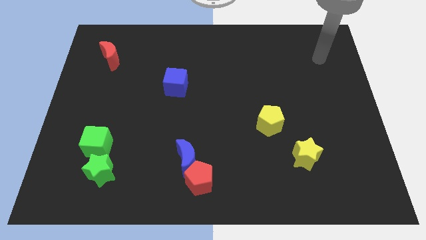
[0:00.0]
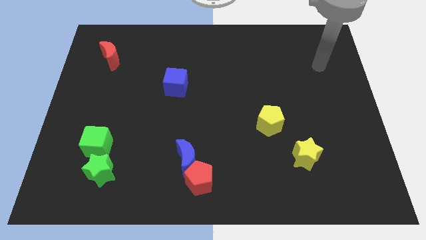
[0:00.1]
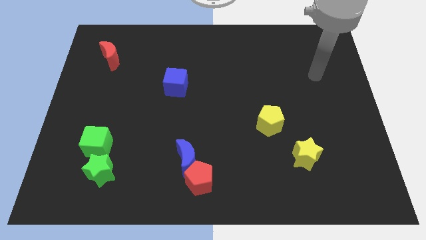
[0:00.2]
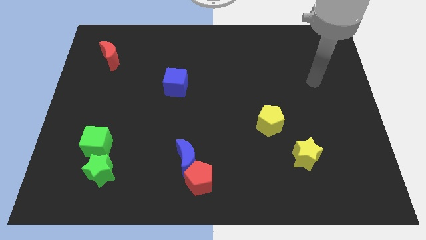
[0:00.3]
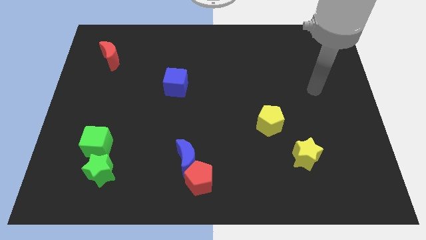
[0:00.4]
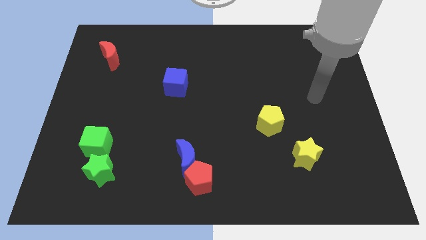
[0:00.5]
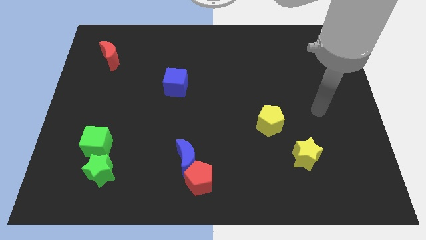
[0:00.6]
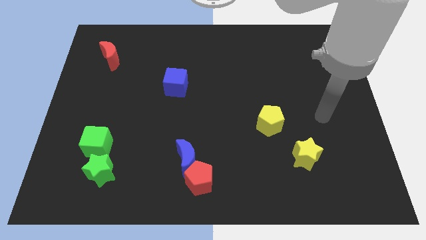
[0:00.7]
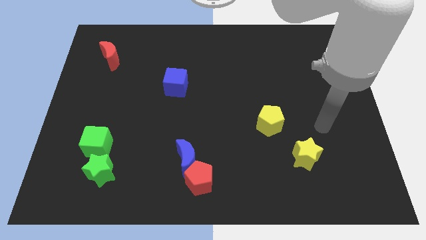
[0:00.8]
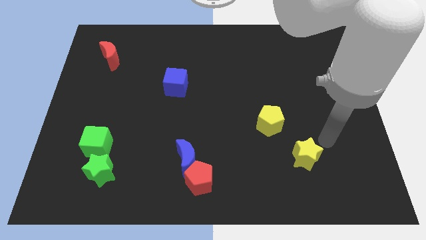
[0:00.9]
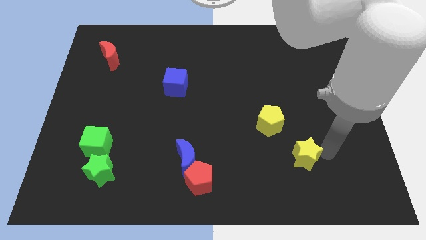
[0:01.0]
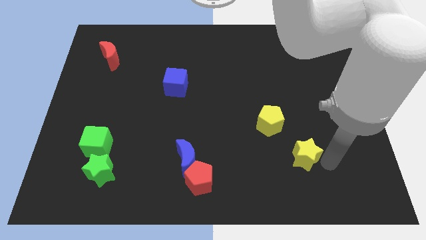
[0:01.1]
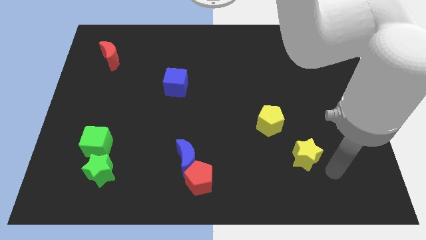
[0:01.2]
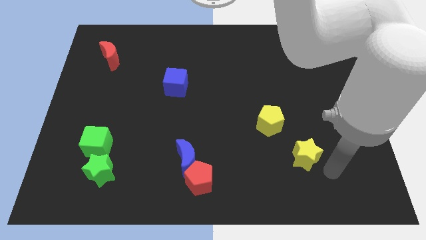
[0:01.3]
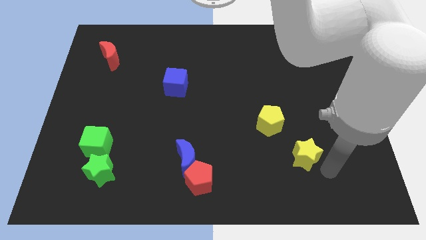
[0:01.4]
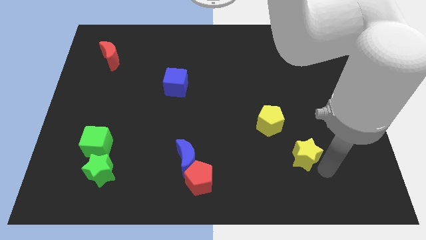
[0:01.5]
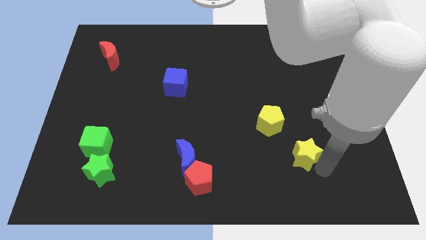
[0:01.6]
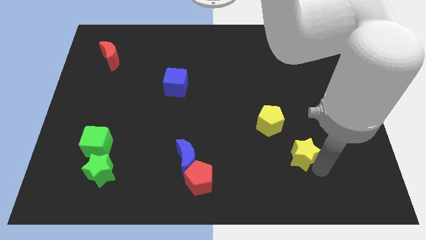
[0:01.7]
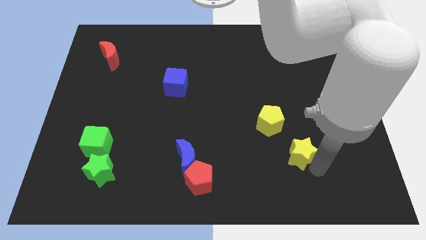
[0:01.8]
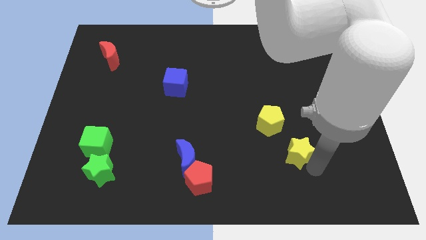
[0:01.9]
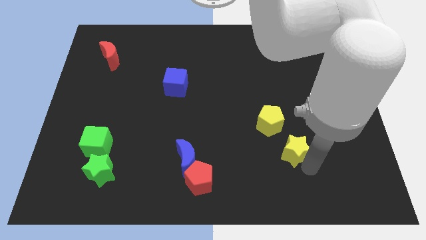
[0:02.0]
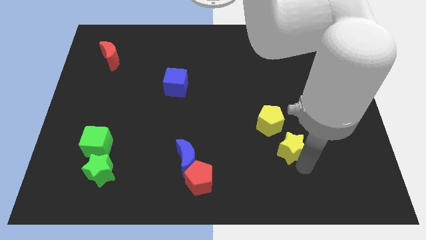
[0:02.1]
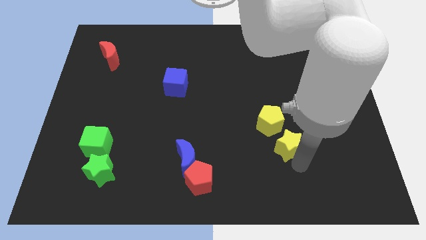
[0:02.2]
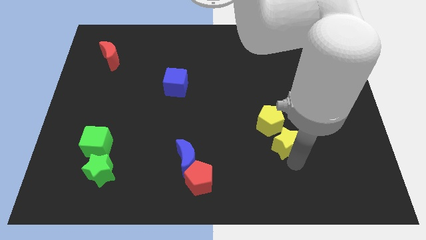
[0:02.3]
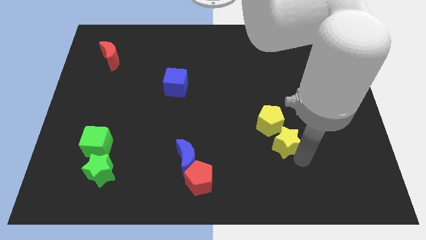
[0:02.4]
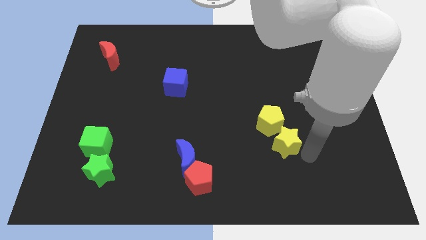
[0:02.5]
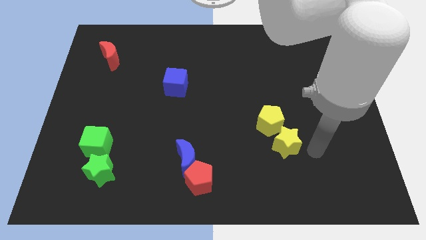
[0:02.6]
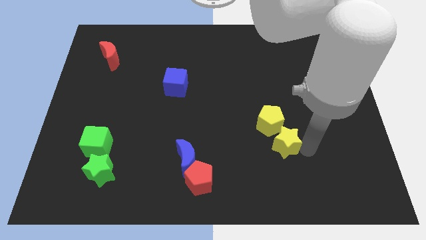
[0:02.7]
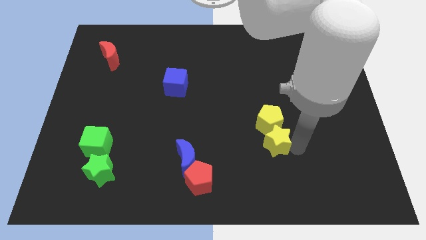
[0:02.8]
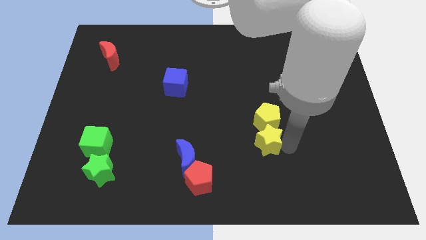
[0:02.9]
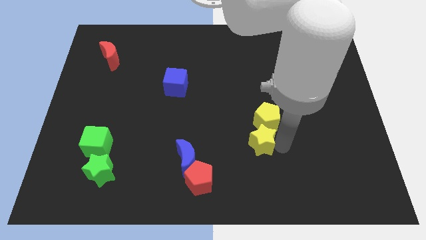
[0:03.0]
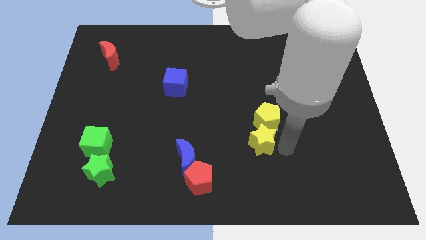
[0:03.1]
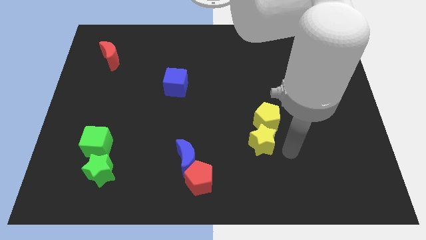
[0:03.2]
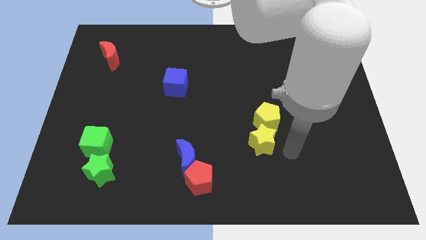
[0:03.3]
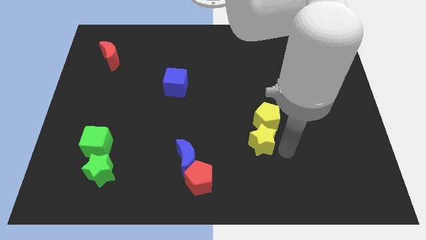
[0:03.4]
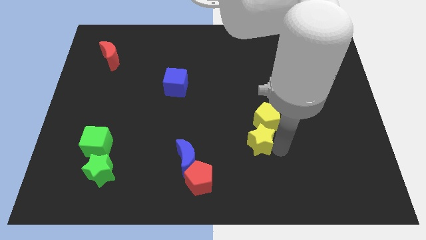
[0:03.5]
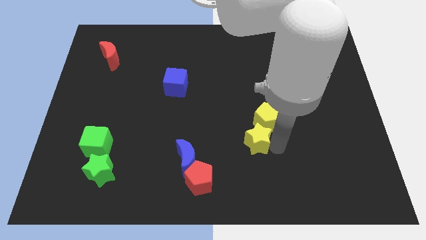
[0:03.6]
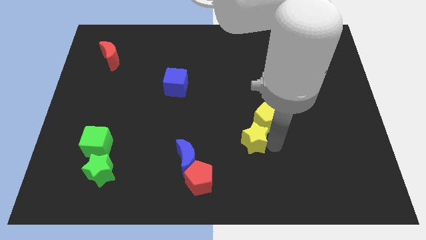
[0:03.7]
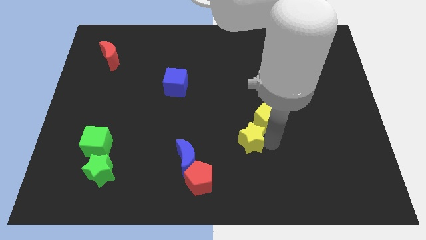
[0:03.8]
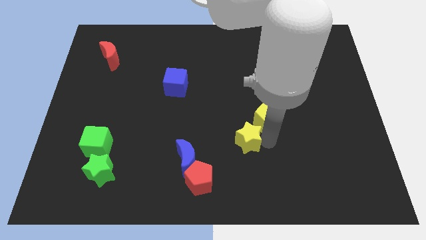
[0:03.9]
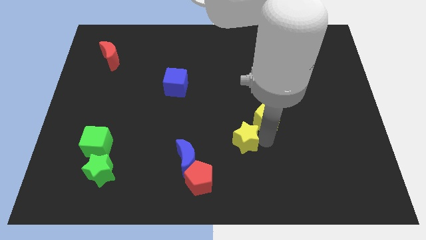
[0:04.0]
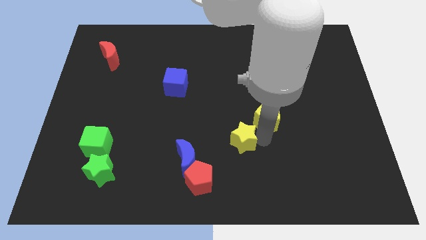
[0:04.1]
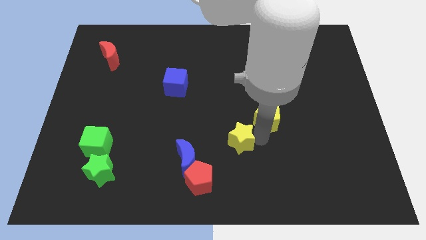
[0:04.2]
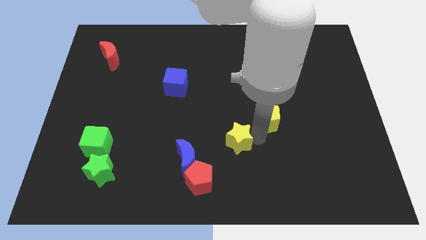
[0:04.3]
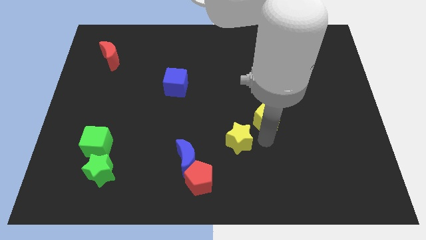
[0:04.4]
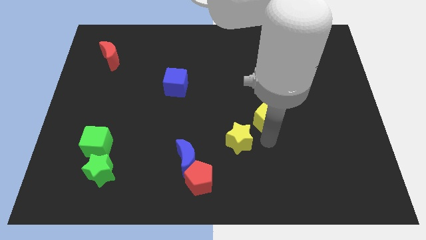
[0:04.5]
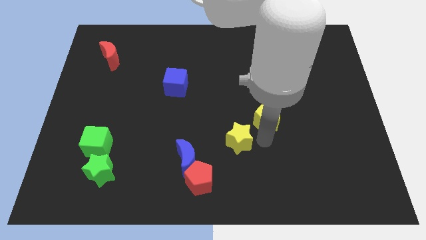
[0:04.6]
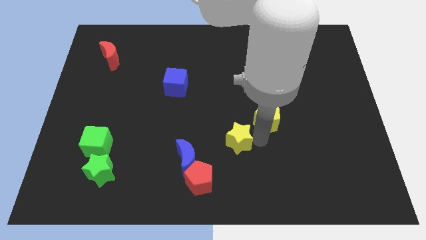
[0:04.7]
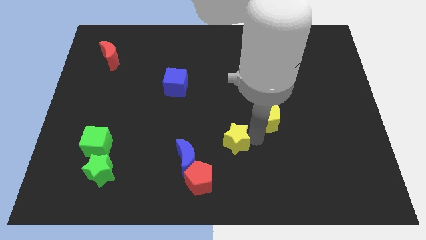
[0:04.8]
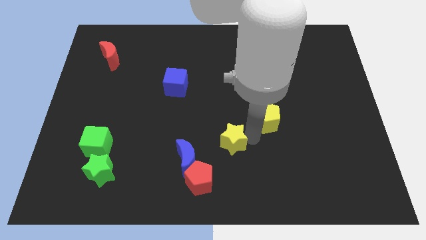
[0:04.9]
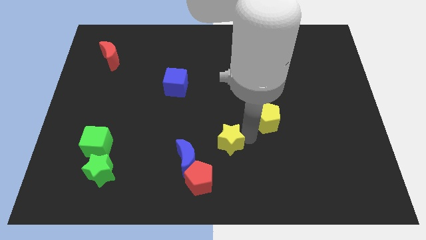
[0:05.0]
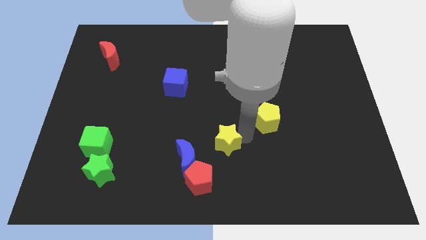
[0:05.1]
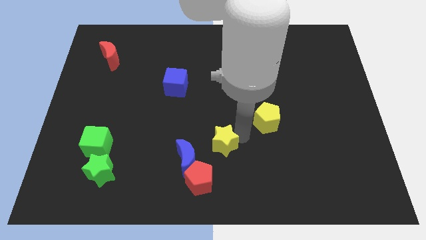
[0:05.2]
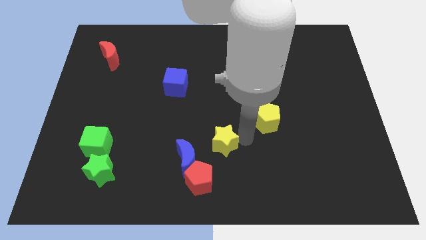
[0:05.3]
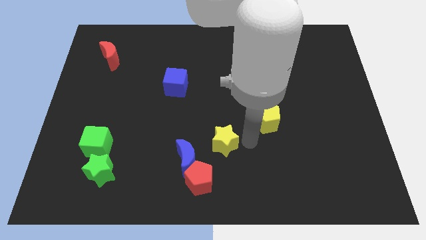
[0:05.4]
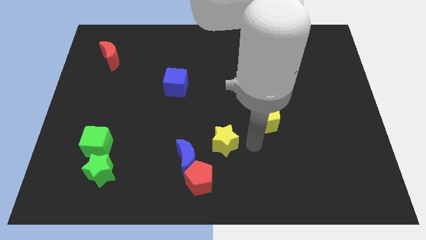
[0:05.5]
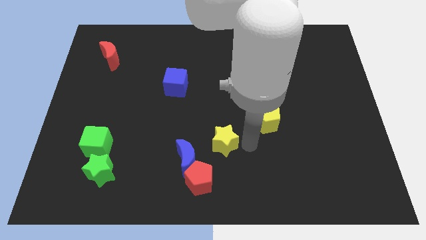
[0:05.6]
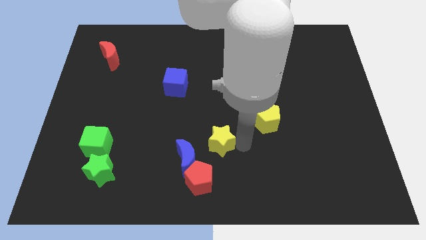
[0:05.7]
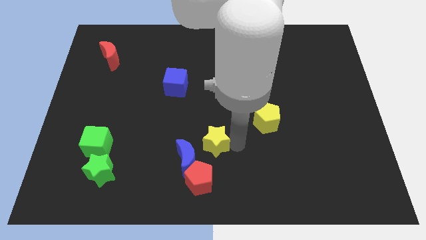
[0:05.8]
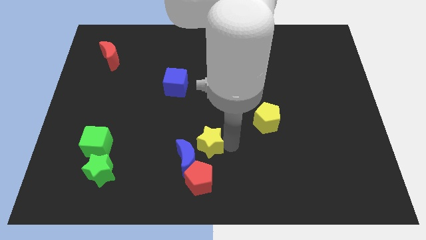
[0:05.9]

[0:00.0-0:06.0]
push the yellow star left

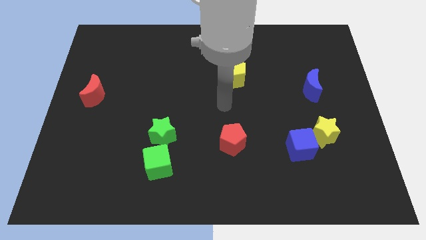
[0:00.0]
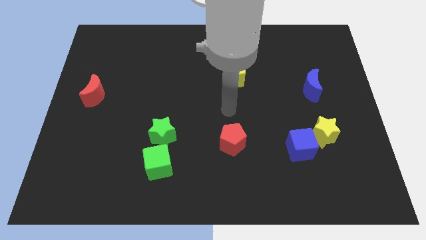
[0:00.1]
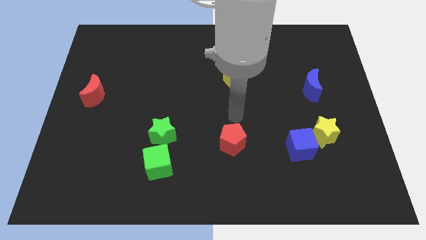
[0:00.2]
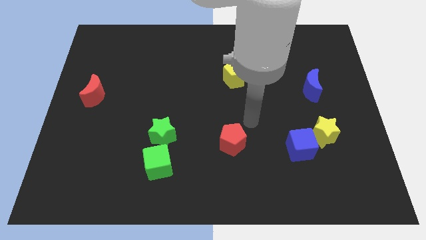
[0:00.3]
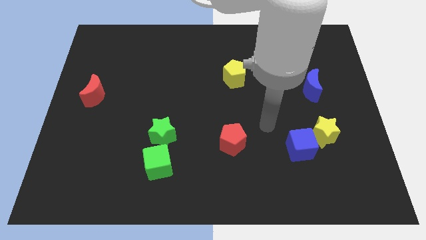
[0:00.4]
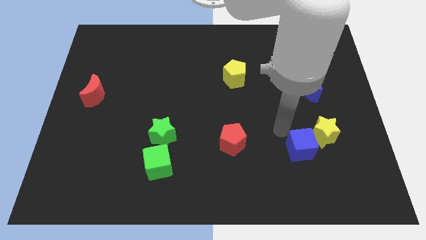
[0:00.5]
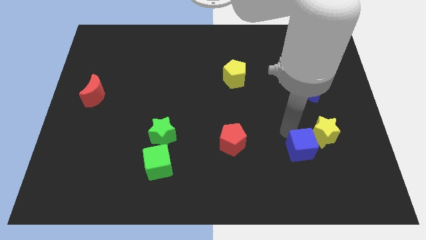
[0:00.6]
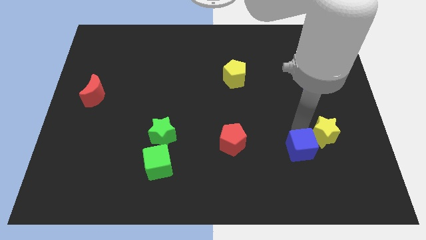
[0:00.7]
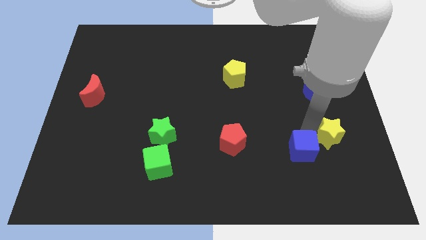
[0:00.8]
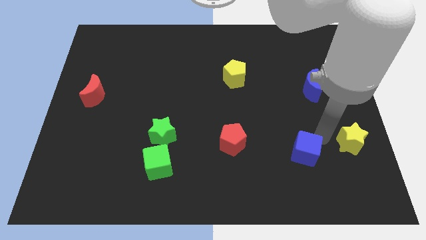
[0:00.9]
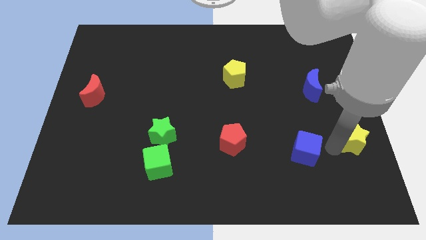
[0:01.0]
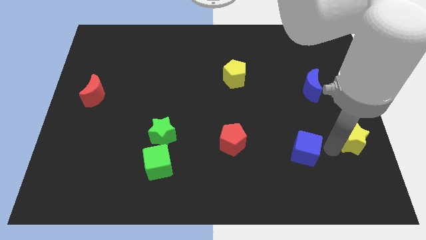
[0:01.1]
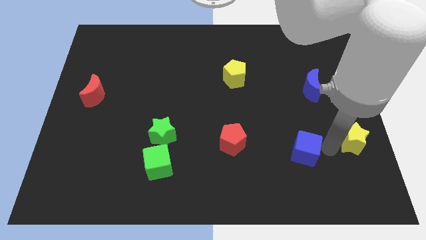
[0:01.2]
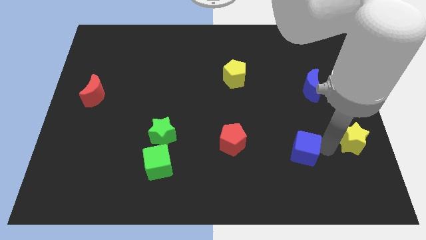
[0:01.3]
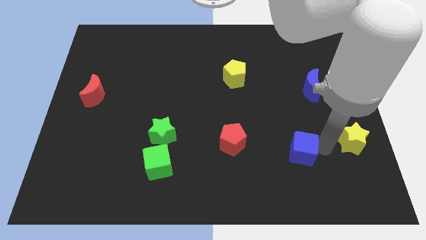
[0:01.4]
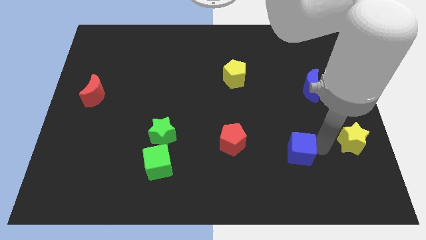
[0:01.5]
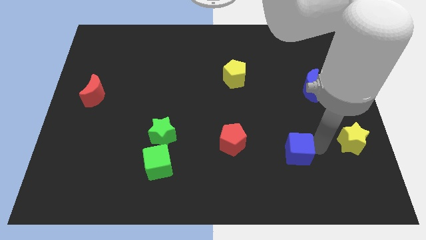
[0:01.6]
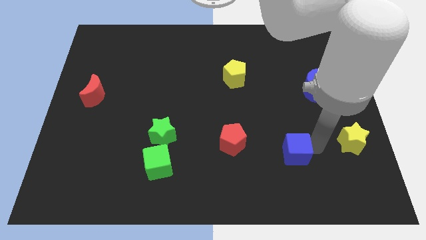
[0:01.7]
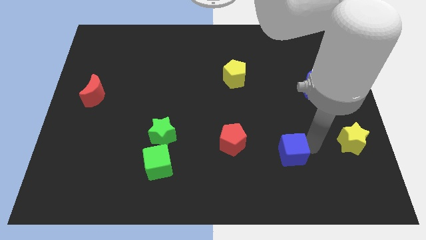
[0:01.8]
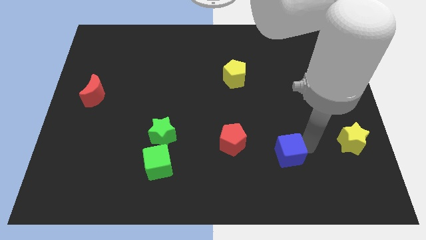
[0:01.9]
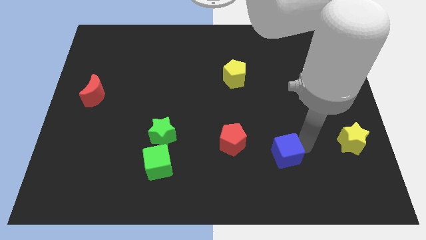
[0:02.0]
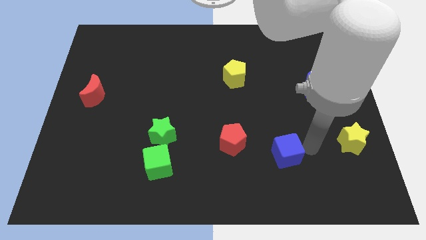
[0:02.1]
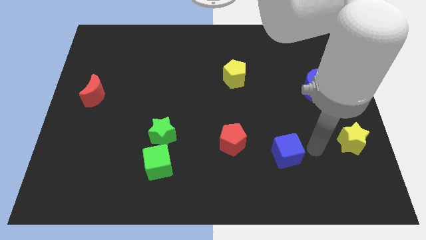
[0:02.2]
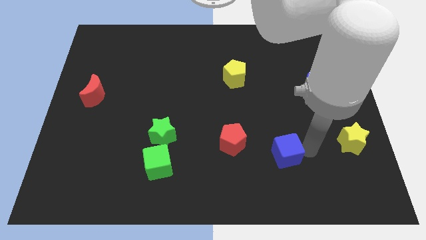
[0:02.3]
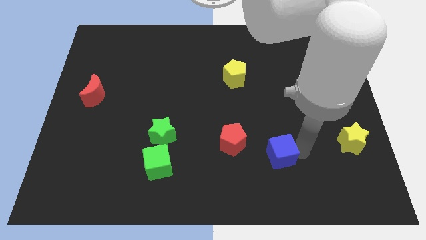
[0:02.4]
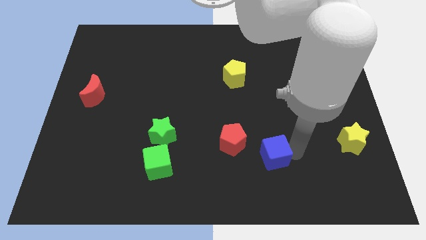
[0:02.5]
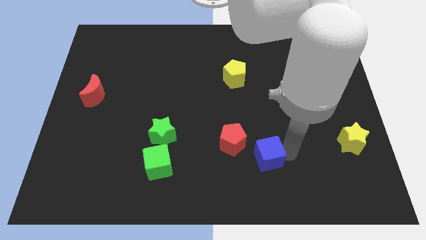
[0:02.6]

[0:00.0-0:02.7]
push the blue cube a little bit left
